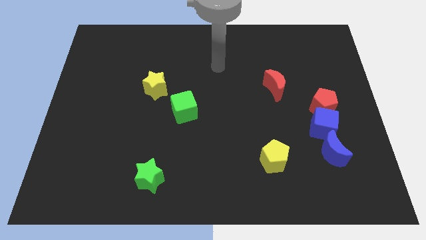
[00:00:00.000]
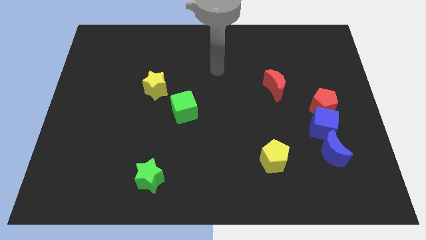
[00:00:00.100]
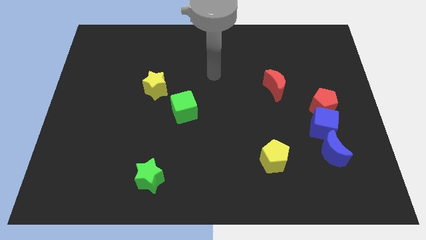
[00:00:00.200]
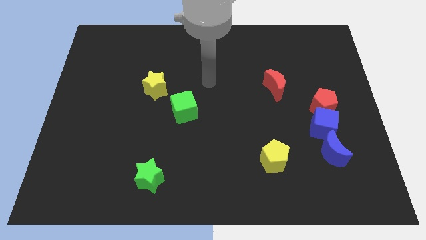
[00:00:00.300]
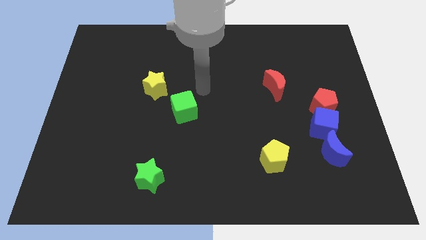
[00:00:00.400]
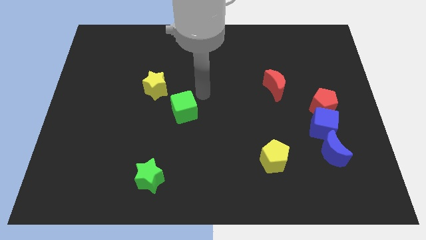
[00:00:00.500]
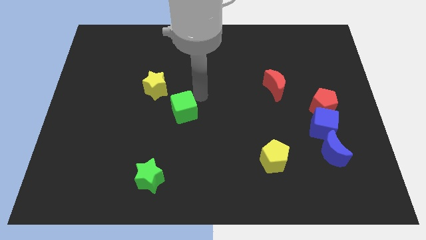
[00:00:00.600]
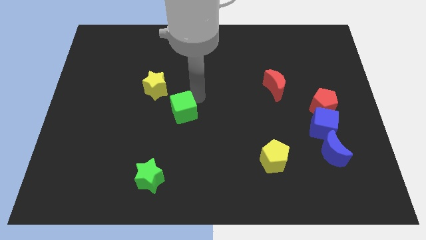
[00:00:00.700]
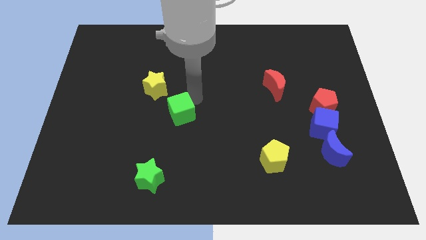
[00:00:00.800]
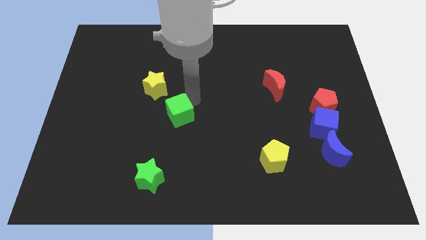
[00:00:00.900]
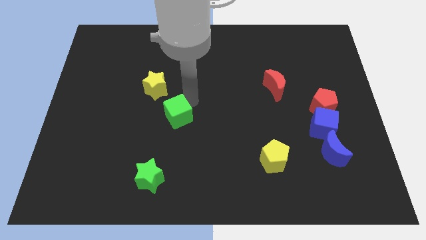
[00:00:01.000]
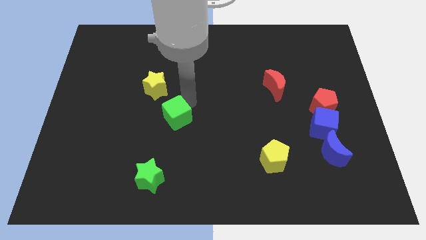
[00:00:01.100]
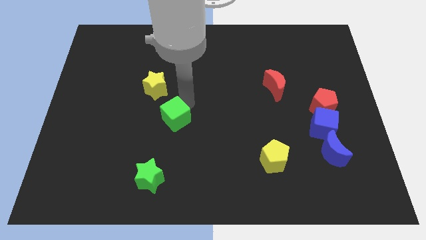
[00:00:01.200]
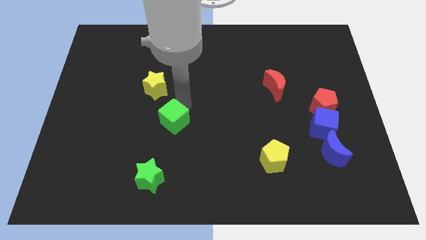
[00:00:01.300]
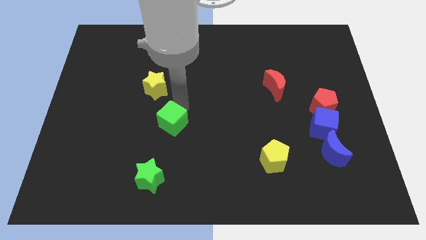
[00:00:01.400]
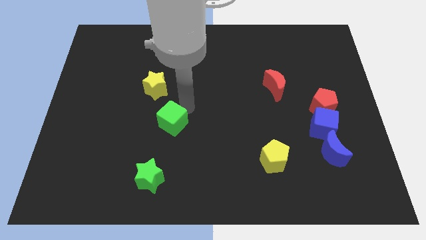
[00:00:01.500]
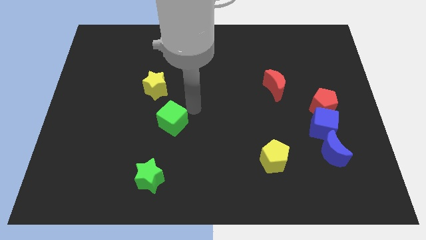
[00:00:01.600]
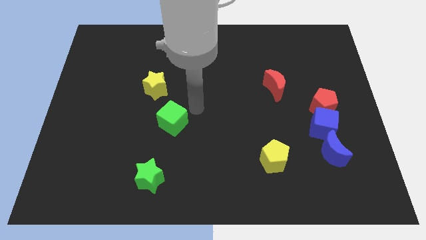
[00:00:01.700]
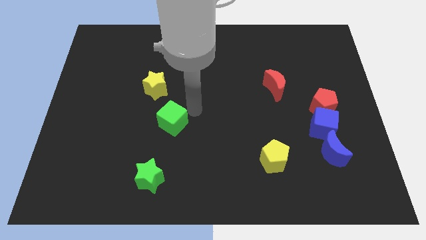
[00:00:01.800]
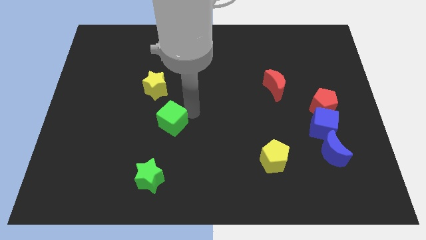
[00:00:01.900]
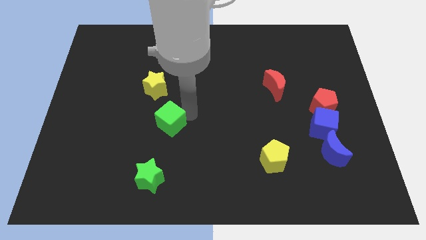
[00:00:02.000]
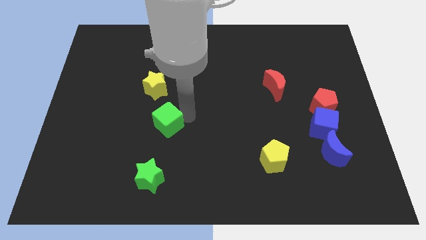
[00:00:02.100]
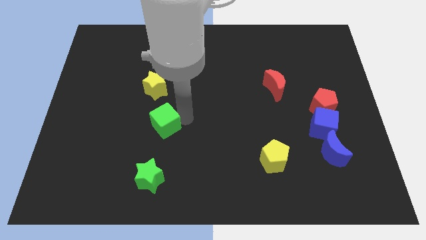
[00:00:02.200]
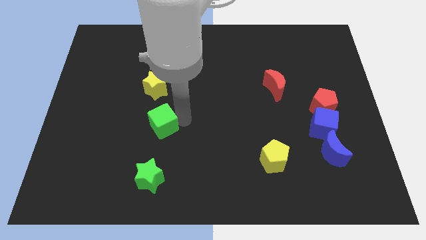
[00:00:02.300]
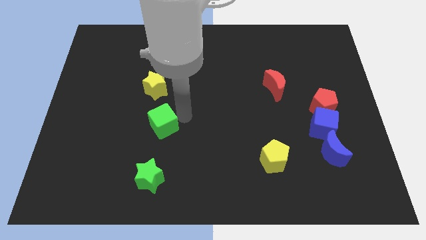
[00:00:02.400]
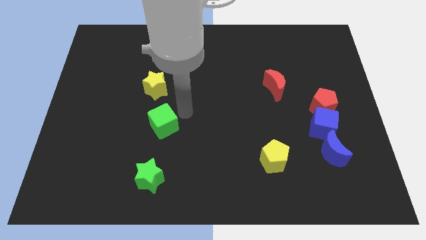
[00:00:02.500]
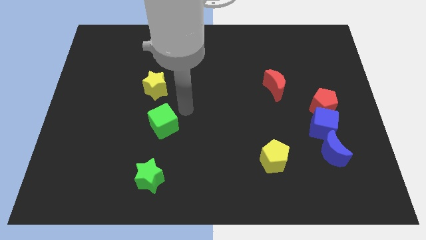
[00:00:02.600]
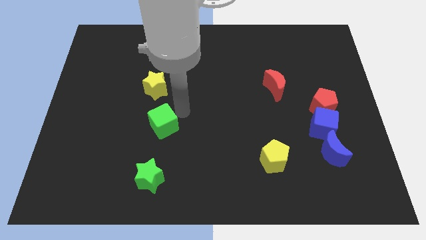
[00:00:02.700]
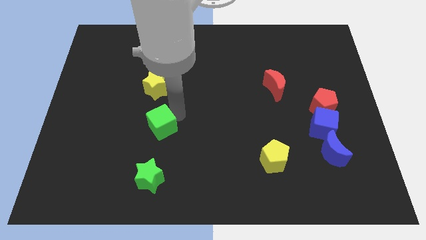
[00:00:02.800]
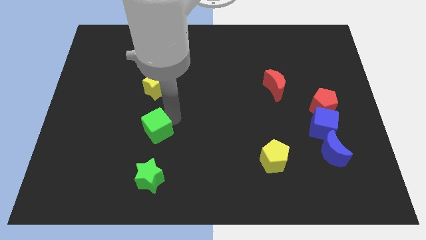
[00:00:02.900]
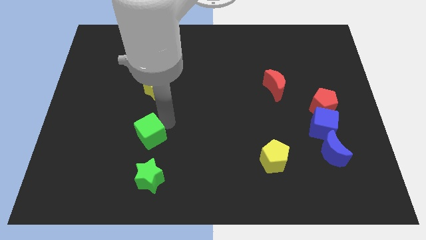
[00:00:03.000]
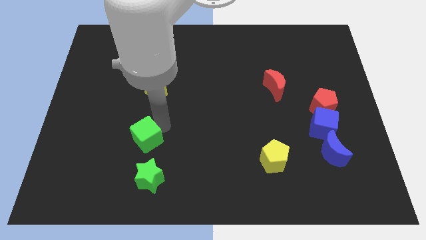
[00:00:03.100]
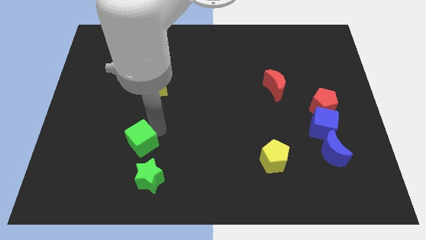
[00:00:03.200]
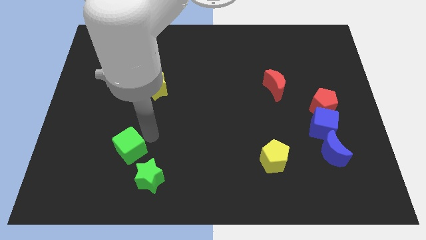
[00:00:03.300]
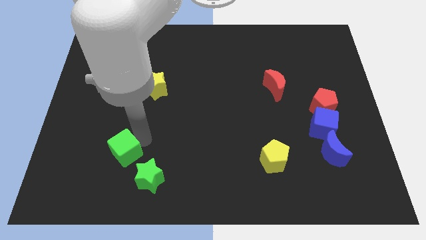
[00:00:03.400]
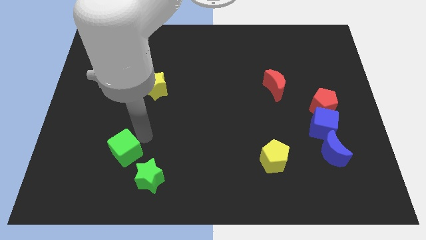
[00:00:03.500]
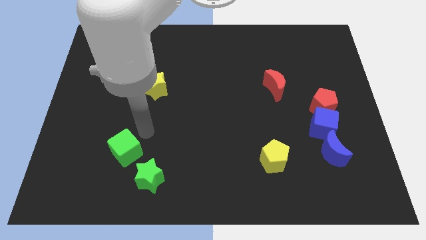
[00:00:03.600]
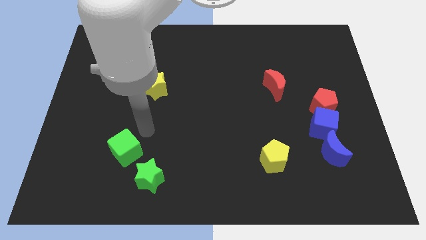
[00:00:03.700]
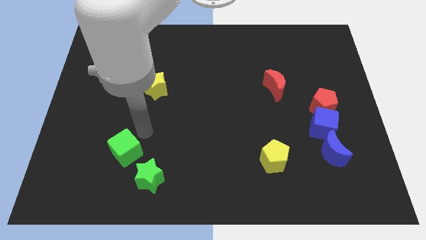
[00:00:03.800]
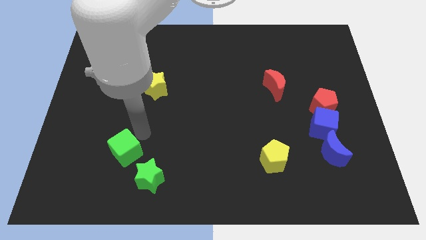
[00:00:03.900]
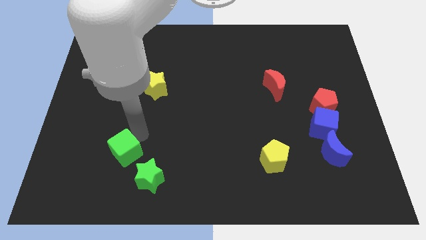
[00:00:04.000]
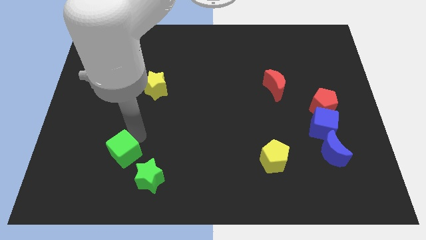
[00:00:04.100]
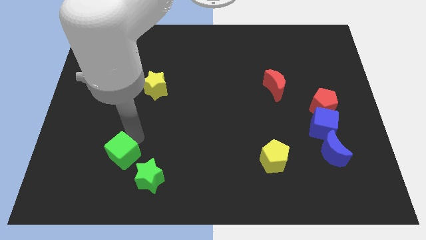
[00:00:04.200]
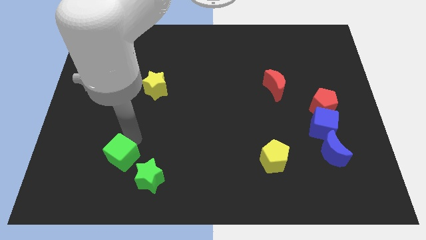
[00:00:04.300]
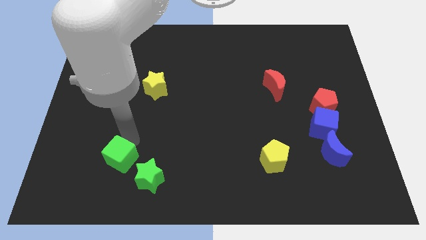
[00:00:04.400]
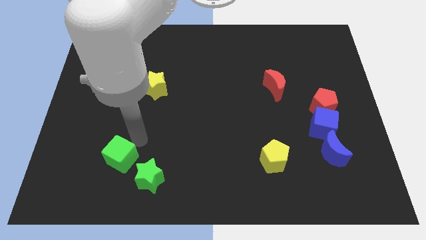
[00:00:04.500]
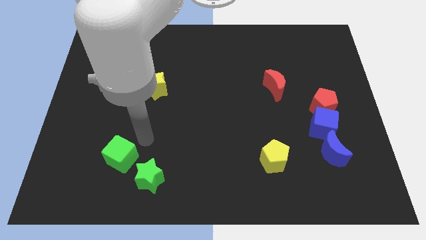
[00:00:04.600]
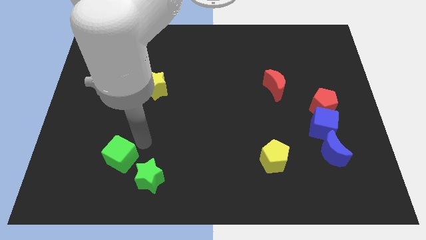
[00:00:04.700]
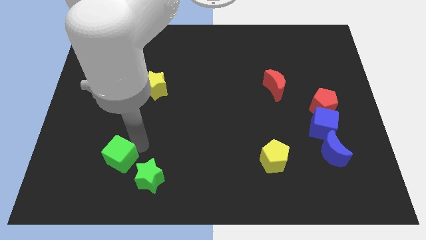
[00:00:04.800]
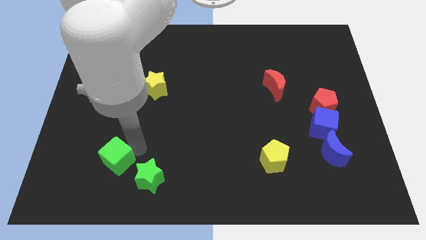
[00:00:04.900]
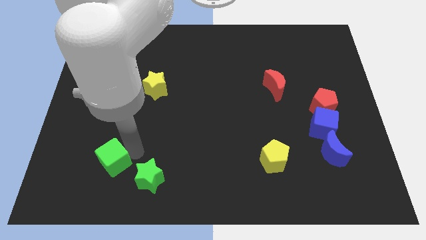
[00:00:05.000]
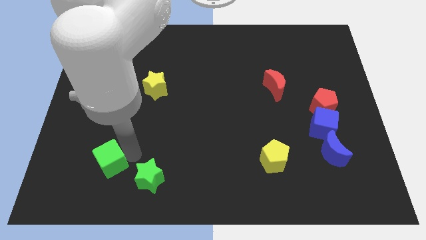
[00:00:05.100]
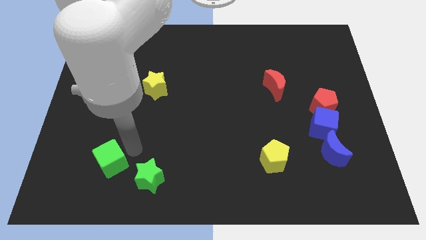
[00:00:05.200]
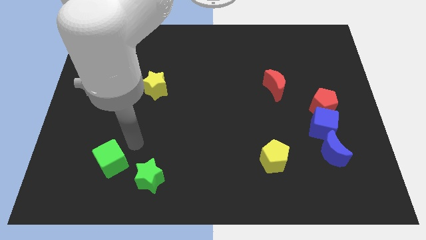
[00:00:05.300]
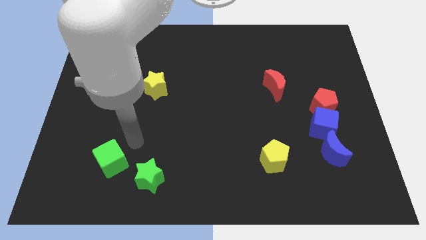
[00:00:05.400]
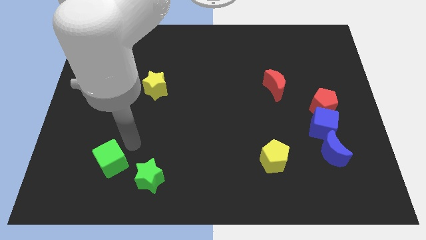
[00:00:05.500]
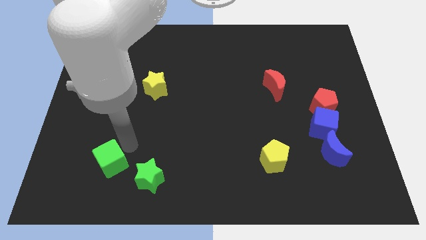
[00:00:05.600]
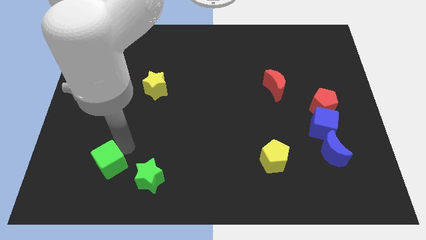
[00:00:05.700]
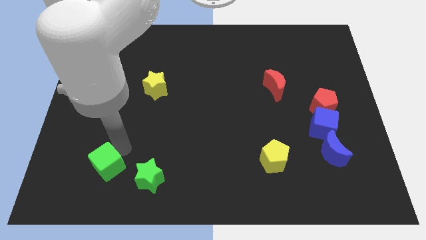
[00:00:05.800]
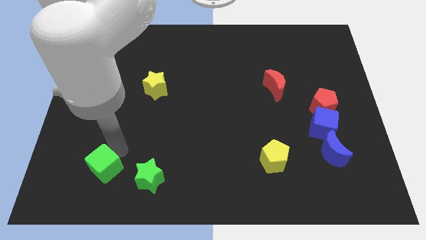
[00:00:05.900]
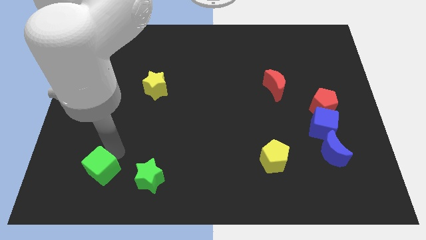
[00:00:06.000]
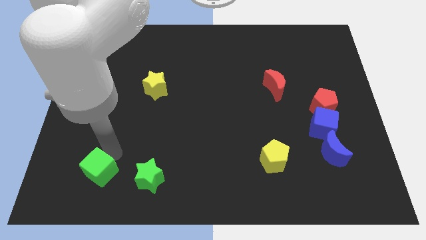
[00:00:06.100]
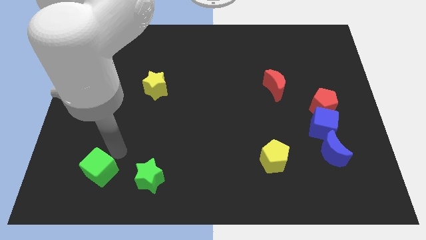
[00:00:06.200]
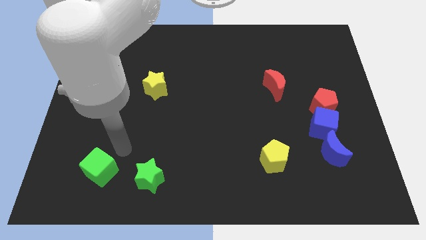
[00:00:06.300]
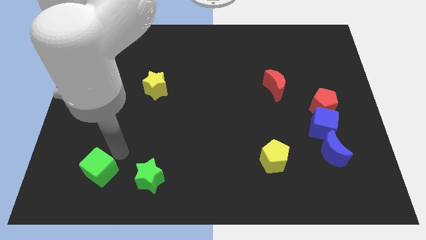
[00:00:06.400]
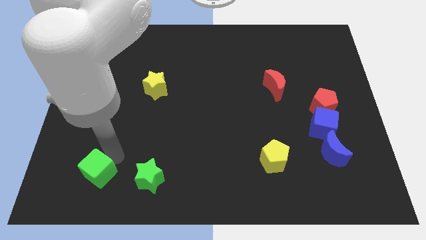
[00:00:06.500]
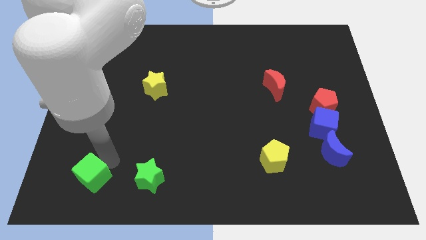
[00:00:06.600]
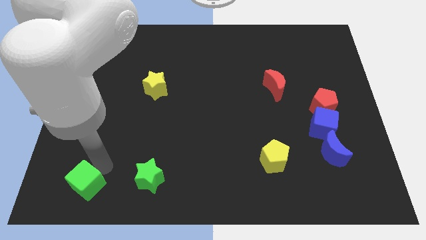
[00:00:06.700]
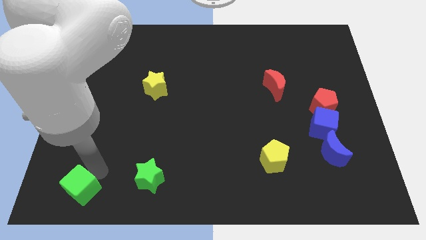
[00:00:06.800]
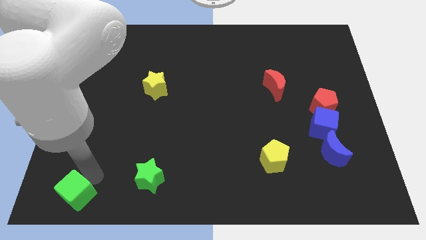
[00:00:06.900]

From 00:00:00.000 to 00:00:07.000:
put the green cube to the bottom left
